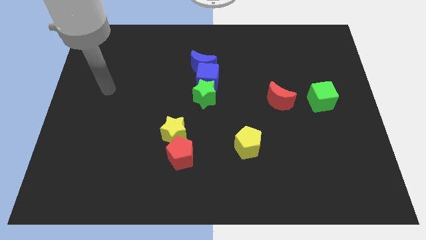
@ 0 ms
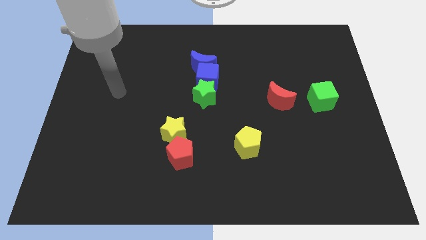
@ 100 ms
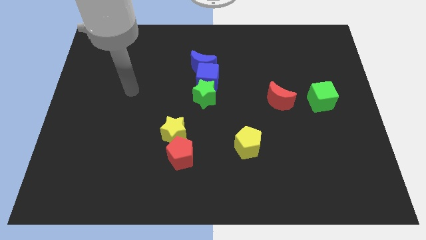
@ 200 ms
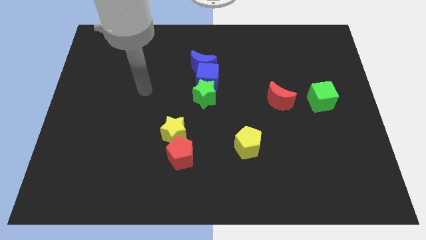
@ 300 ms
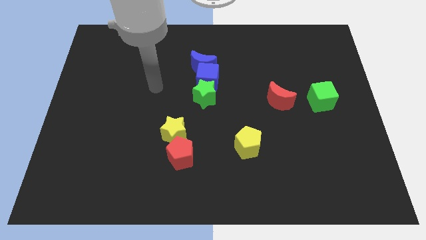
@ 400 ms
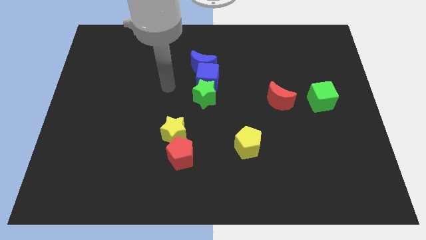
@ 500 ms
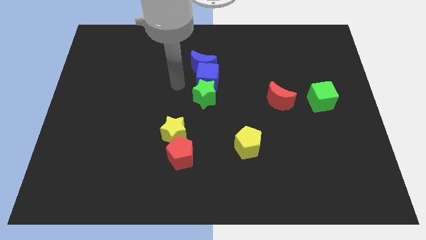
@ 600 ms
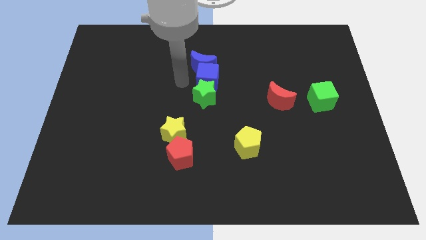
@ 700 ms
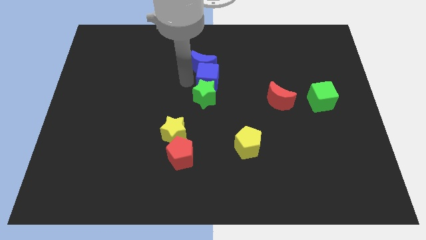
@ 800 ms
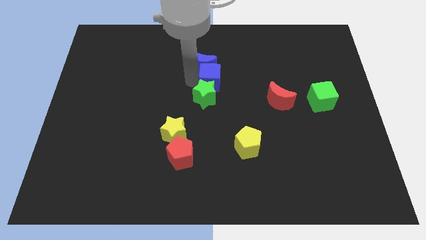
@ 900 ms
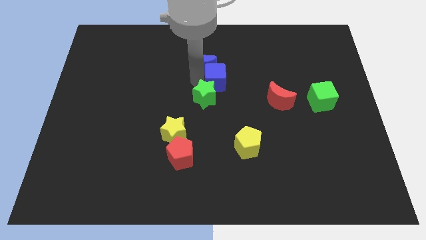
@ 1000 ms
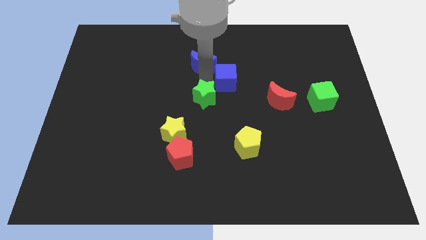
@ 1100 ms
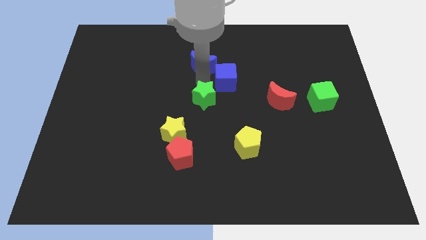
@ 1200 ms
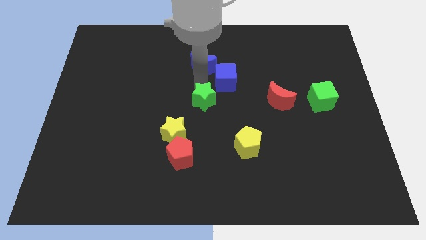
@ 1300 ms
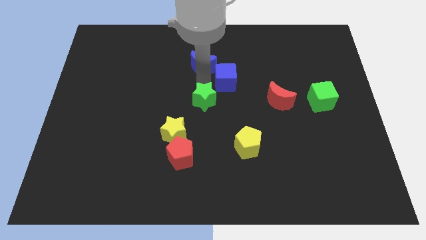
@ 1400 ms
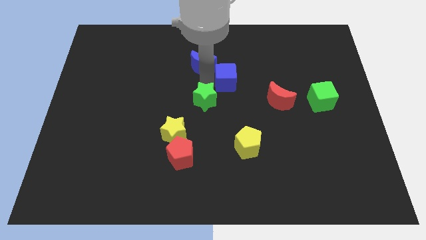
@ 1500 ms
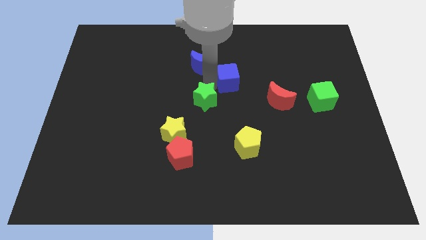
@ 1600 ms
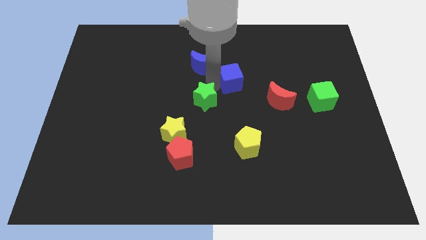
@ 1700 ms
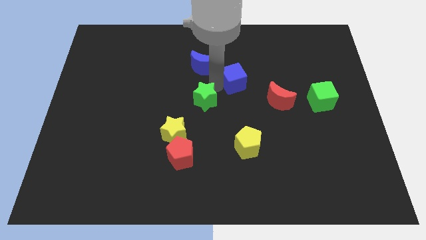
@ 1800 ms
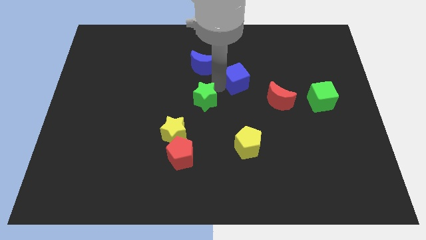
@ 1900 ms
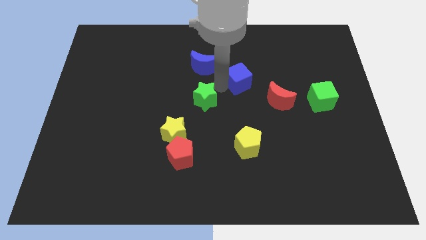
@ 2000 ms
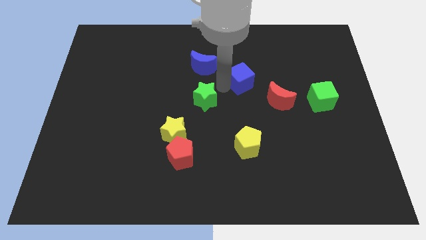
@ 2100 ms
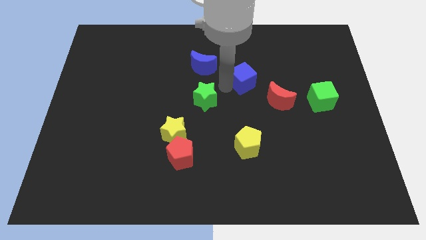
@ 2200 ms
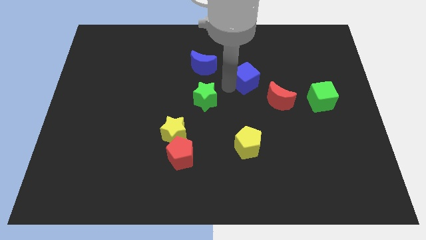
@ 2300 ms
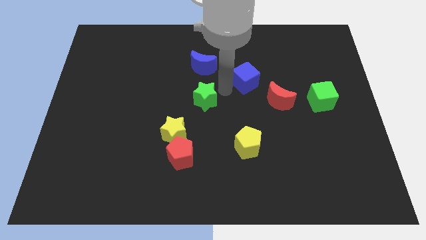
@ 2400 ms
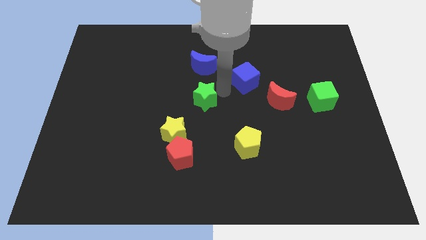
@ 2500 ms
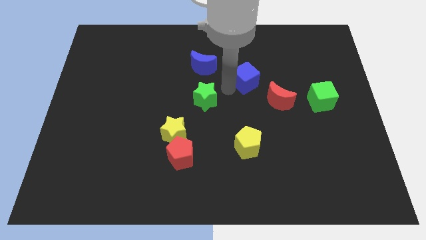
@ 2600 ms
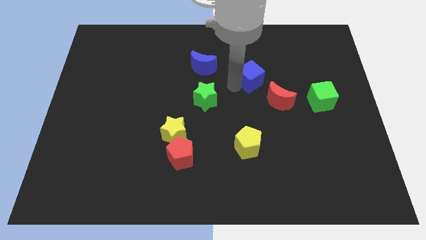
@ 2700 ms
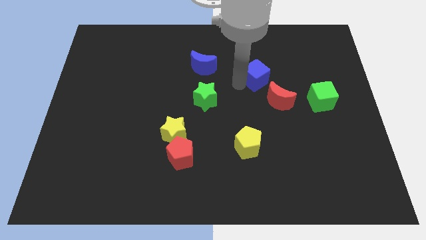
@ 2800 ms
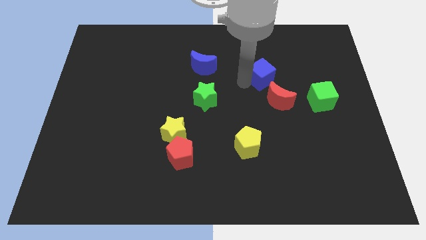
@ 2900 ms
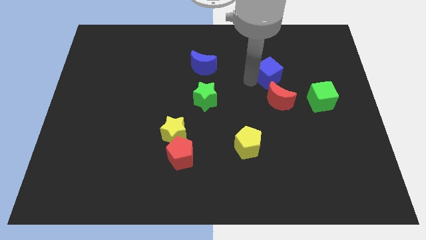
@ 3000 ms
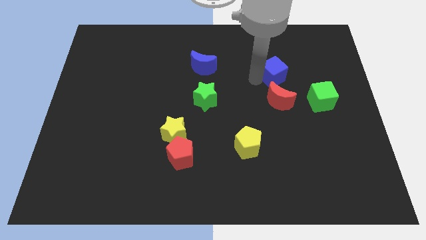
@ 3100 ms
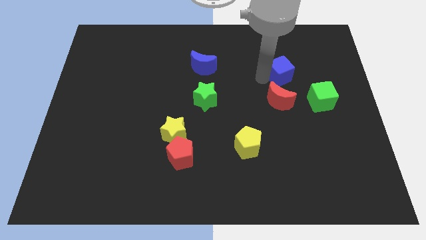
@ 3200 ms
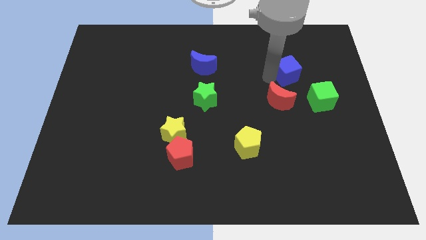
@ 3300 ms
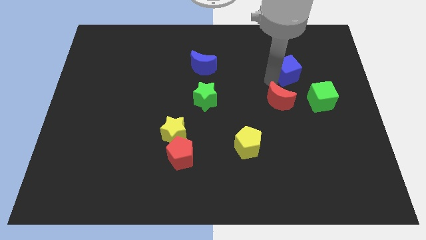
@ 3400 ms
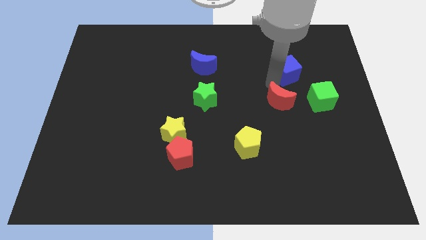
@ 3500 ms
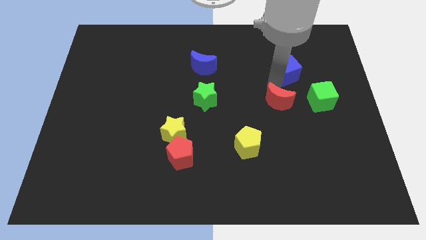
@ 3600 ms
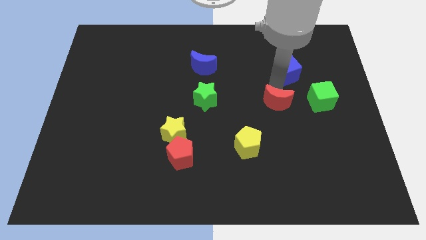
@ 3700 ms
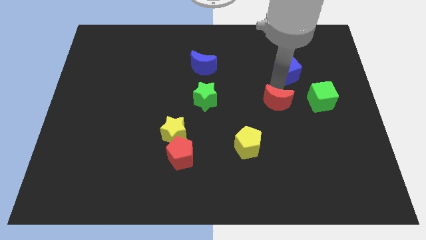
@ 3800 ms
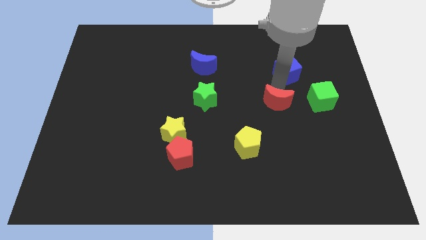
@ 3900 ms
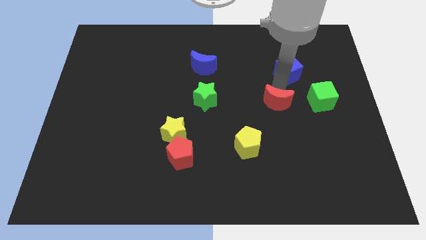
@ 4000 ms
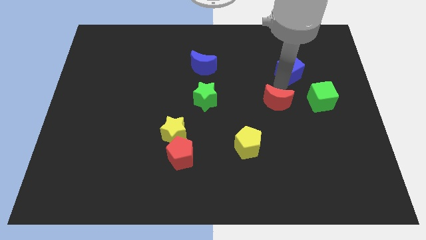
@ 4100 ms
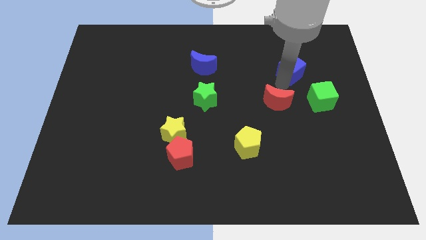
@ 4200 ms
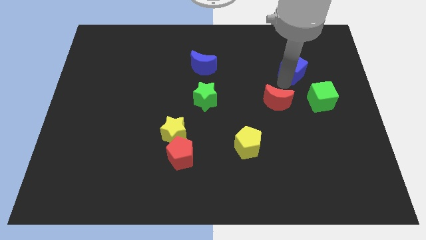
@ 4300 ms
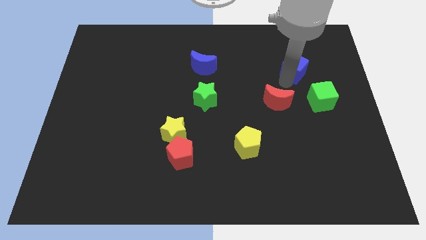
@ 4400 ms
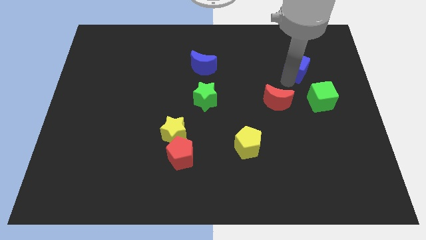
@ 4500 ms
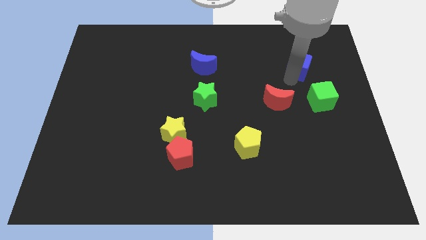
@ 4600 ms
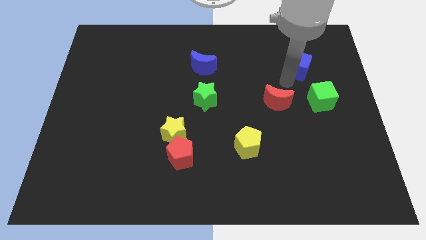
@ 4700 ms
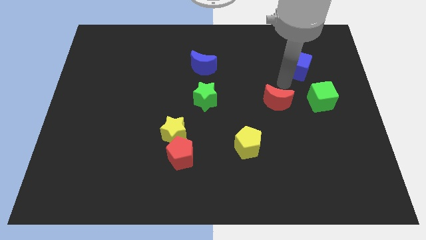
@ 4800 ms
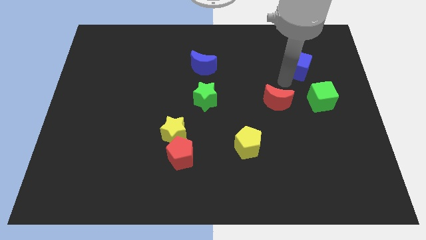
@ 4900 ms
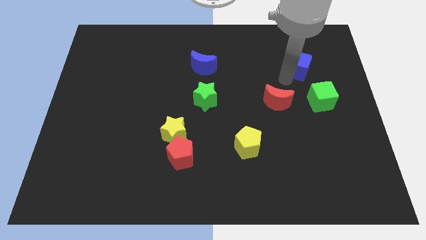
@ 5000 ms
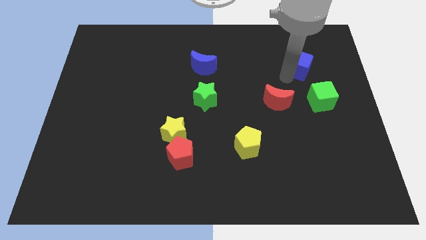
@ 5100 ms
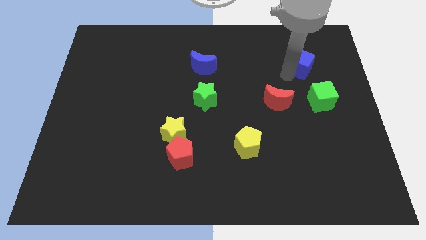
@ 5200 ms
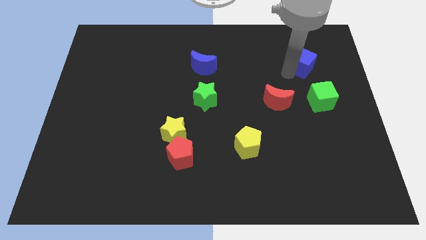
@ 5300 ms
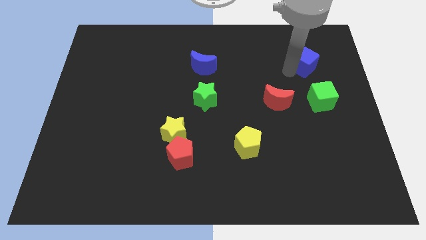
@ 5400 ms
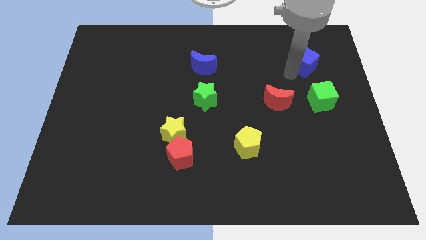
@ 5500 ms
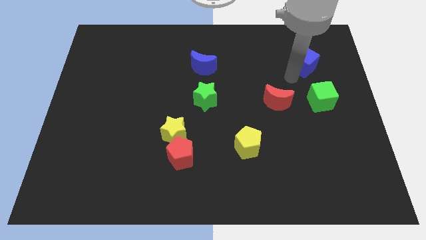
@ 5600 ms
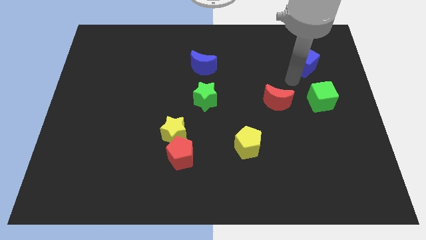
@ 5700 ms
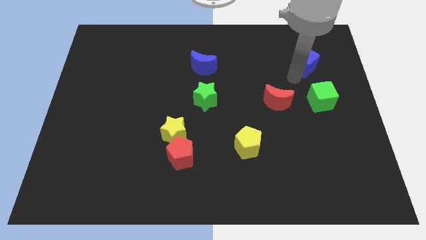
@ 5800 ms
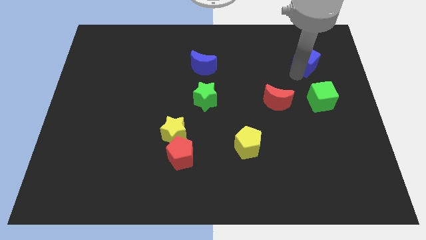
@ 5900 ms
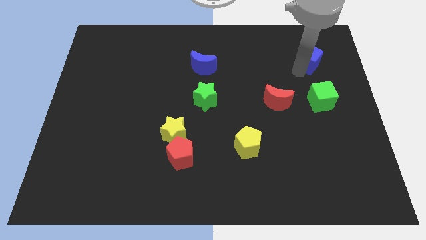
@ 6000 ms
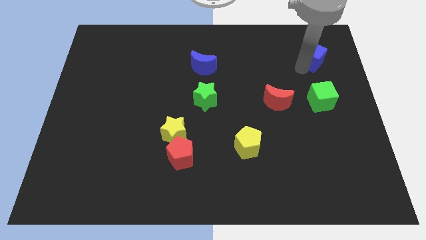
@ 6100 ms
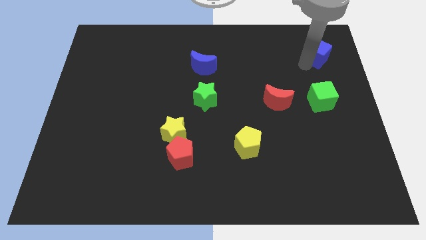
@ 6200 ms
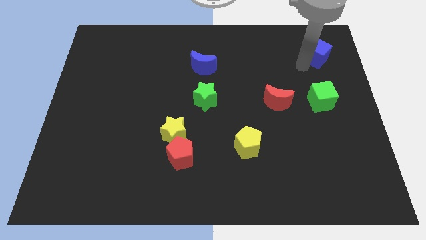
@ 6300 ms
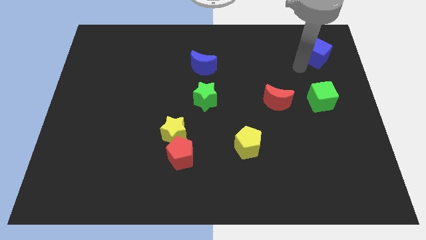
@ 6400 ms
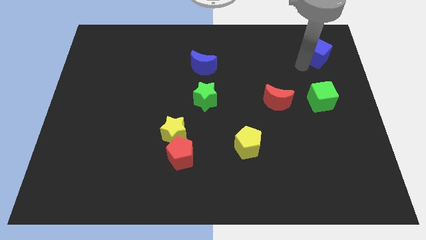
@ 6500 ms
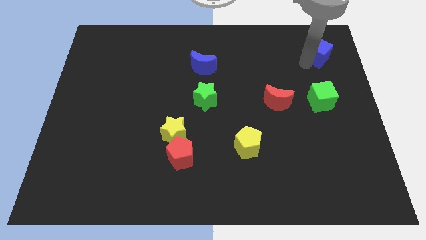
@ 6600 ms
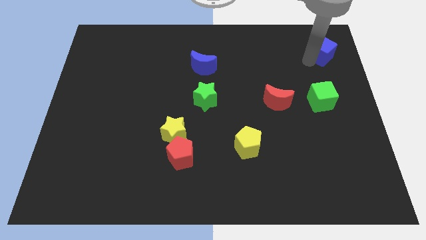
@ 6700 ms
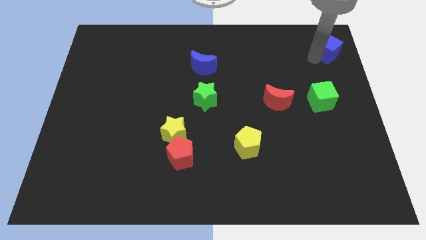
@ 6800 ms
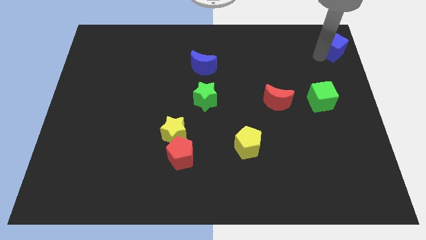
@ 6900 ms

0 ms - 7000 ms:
push the blue cube to the upper right corner

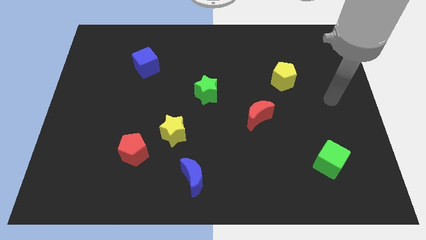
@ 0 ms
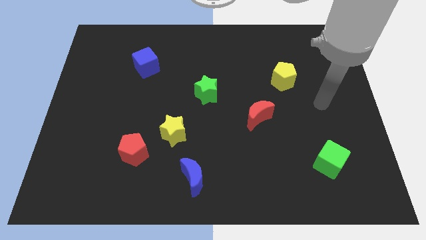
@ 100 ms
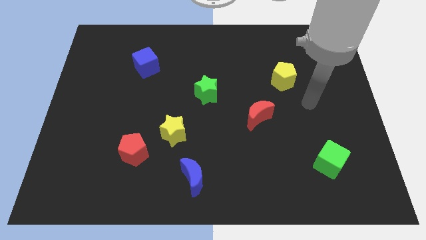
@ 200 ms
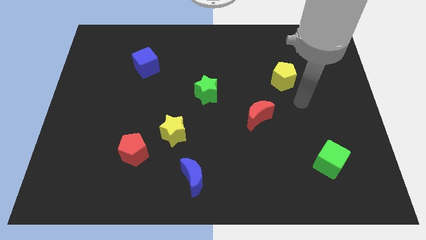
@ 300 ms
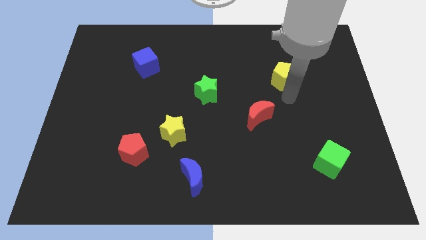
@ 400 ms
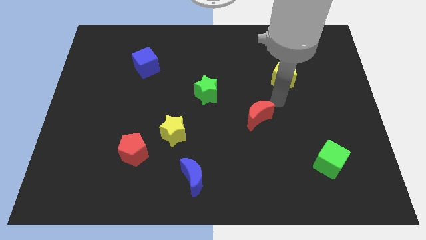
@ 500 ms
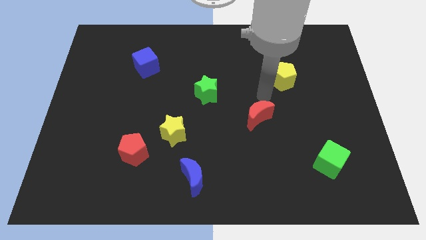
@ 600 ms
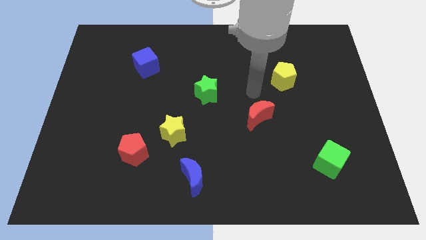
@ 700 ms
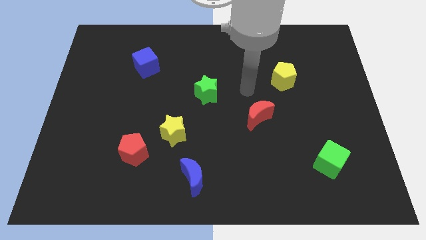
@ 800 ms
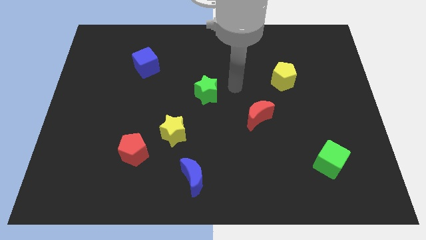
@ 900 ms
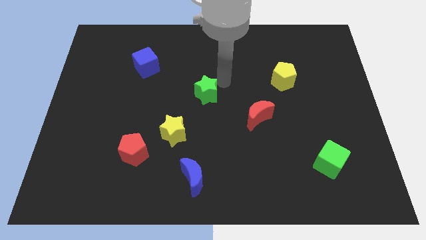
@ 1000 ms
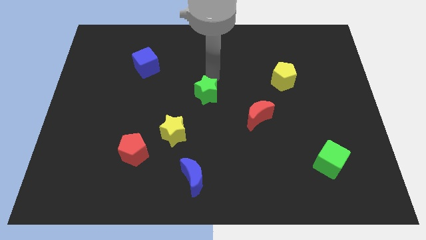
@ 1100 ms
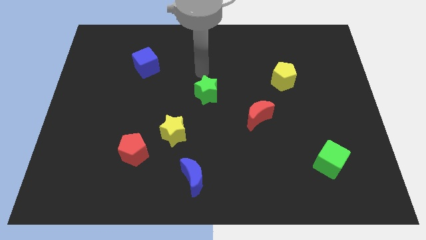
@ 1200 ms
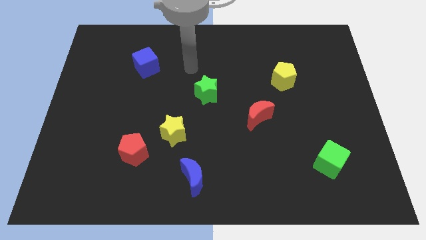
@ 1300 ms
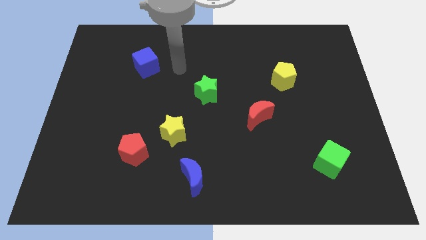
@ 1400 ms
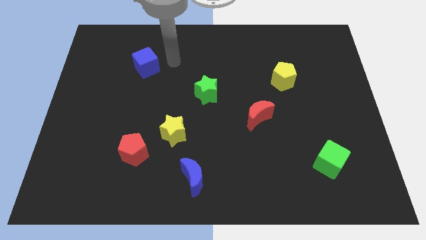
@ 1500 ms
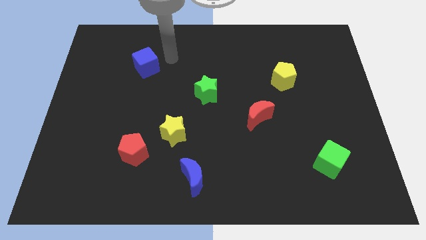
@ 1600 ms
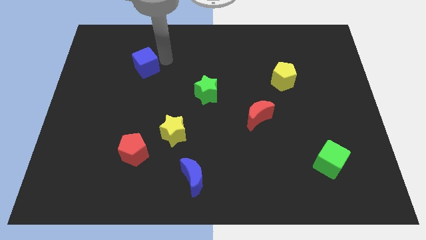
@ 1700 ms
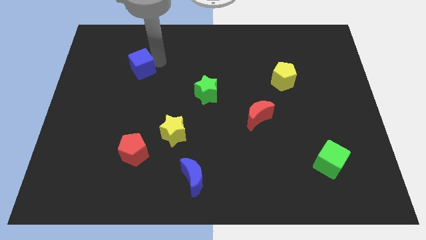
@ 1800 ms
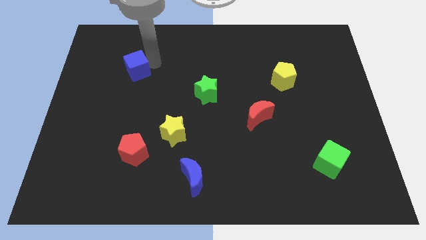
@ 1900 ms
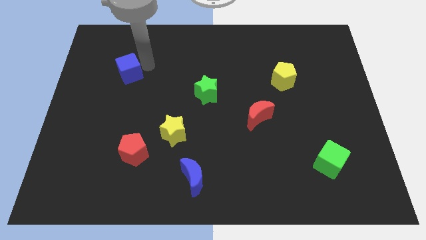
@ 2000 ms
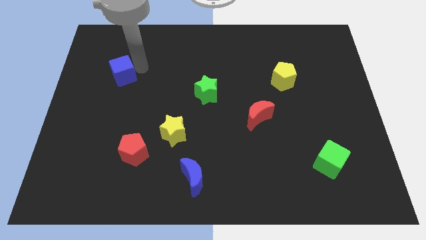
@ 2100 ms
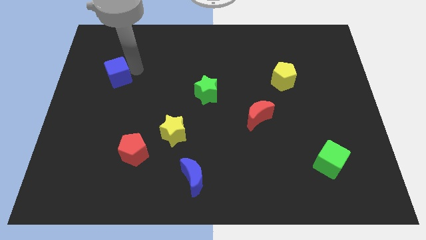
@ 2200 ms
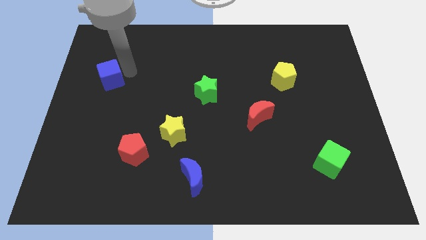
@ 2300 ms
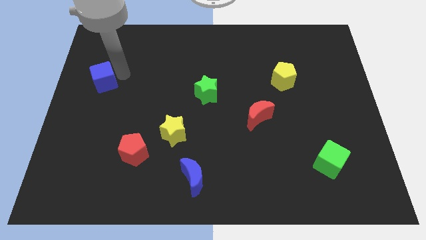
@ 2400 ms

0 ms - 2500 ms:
slide the blue cube to the left side
